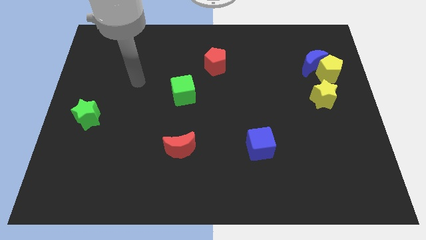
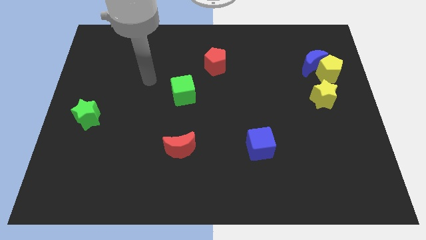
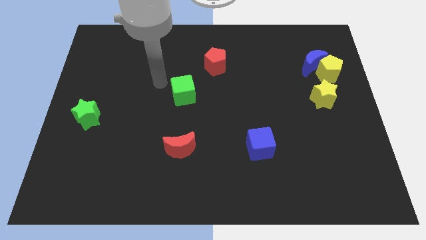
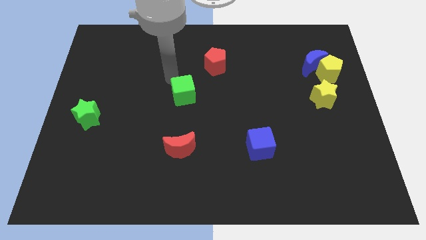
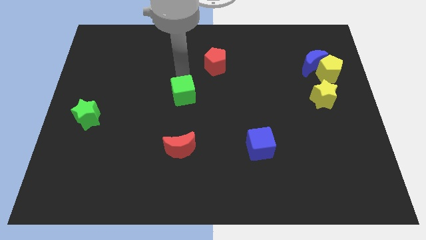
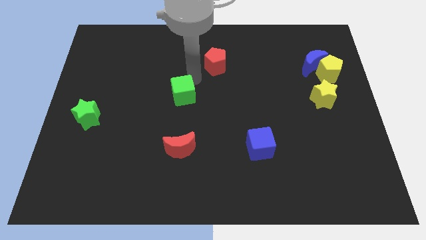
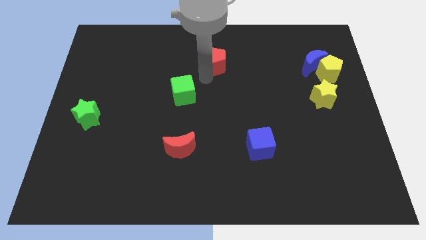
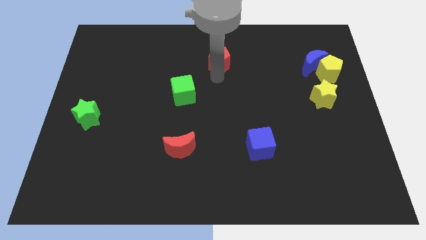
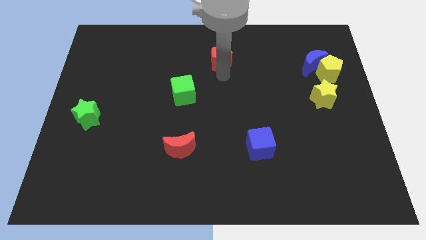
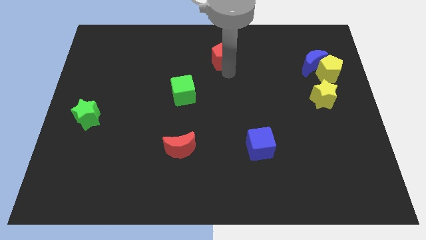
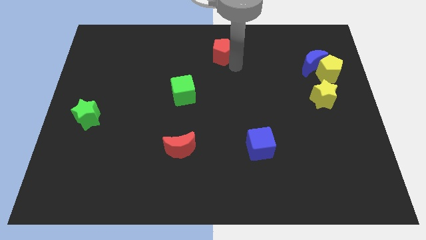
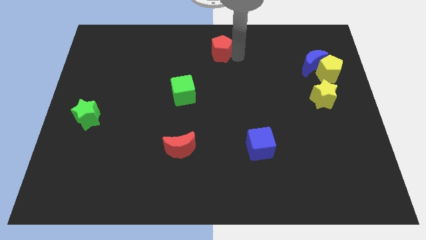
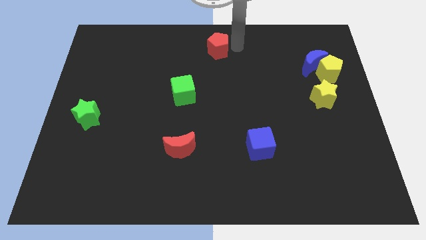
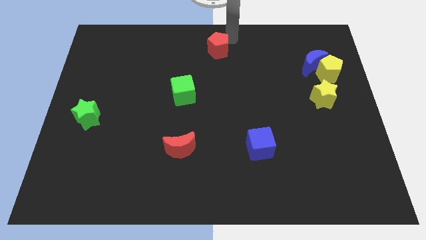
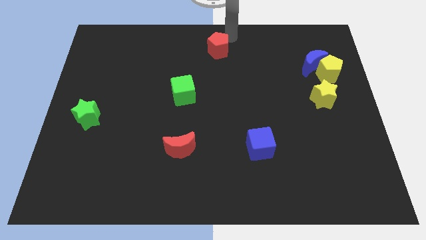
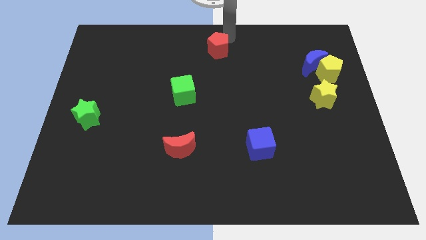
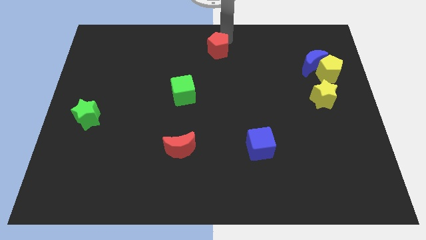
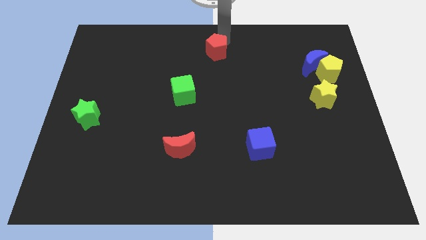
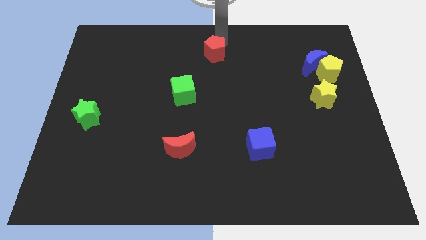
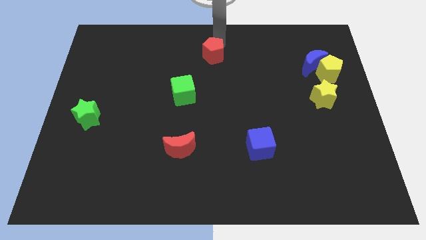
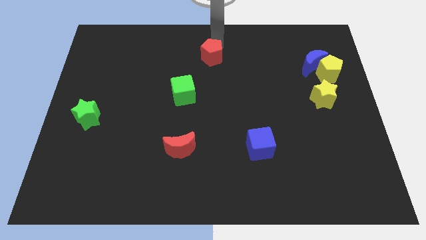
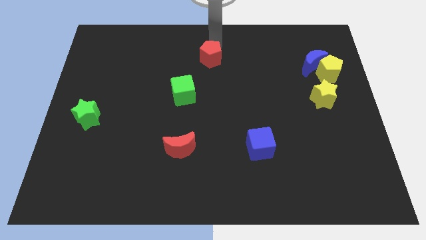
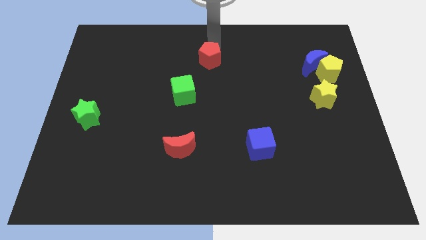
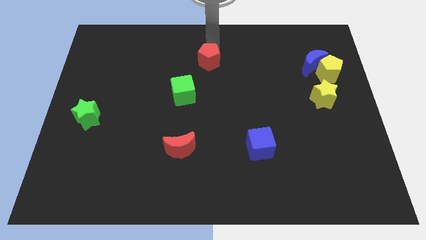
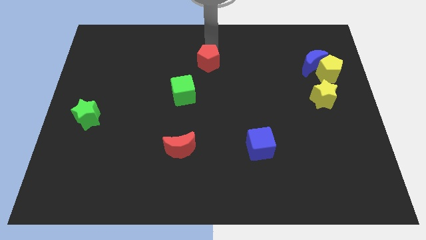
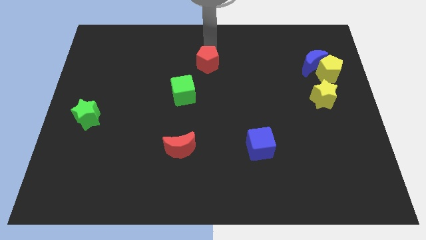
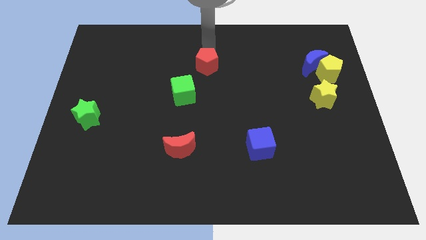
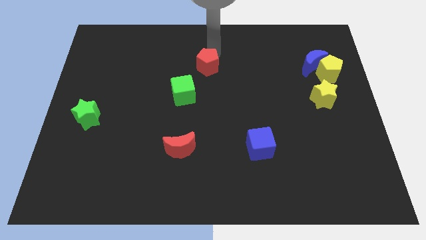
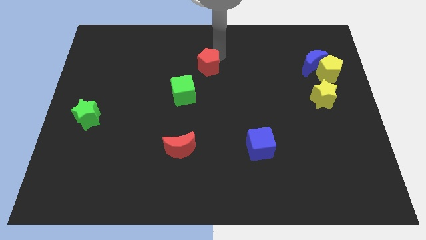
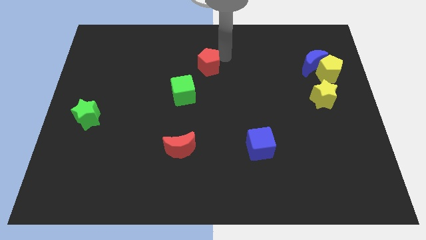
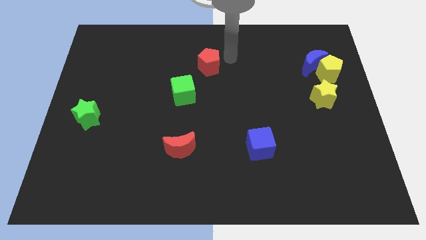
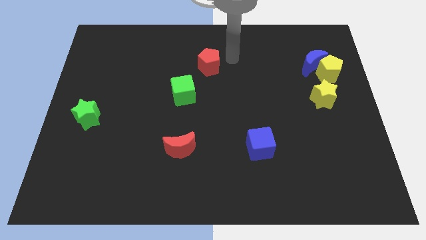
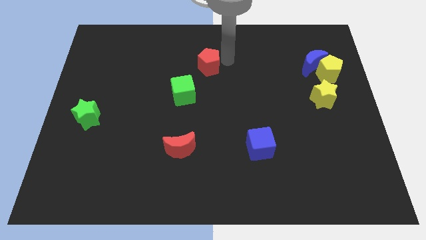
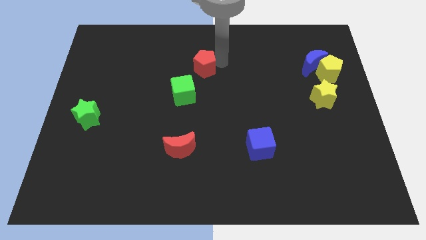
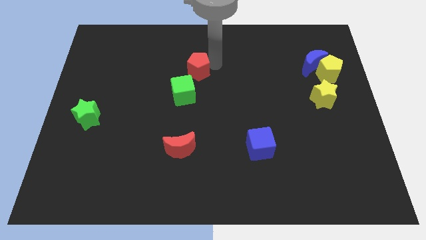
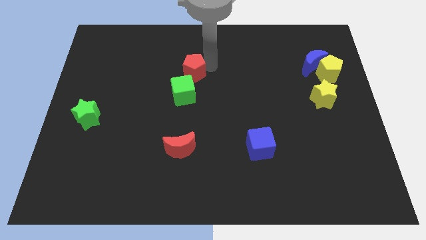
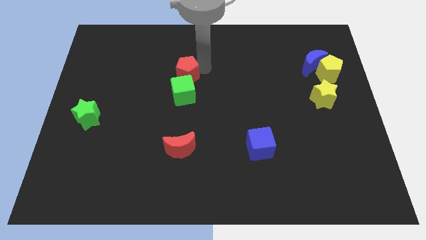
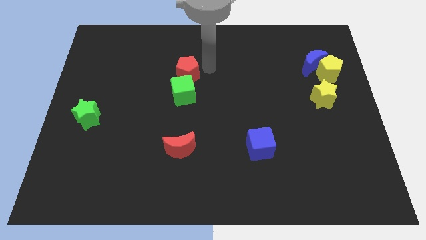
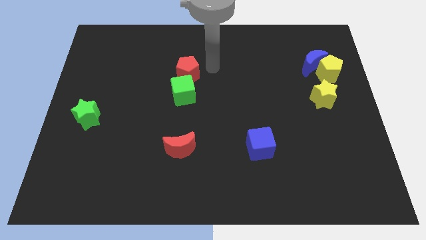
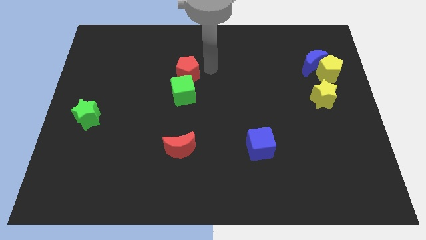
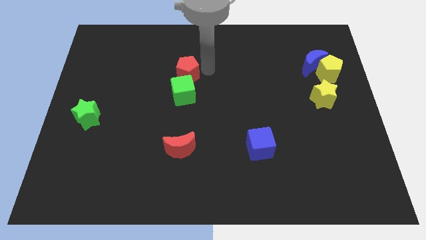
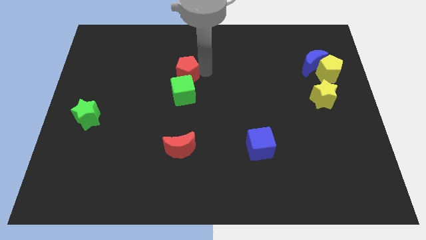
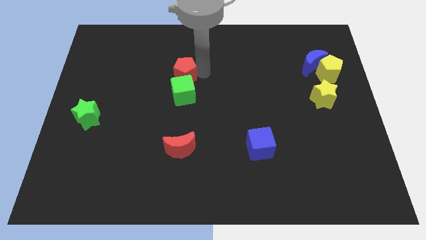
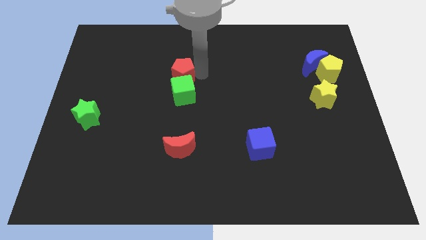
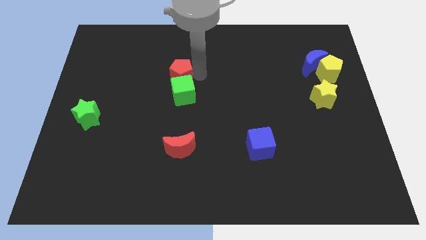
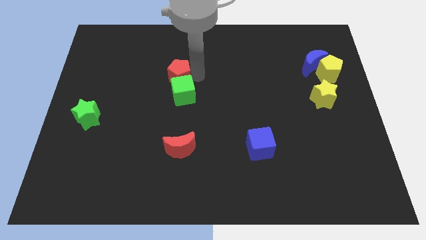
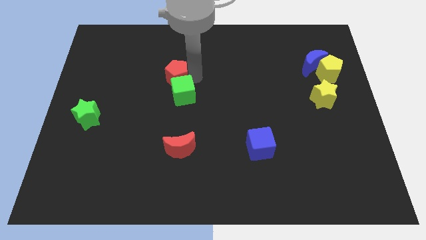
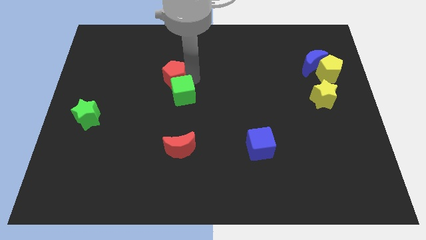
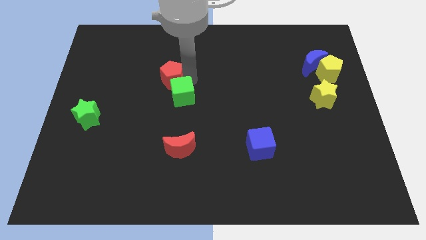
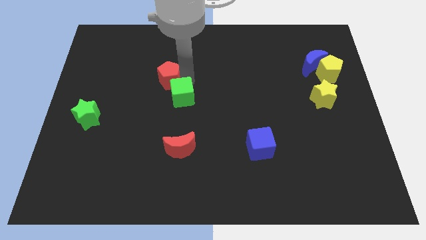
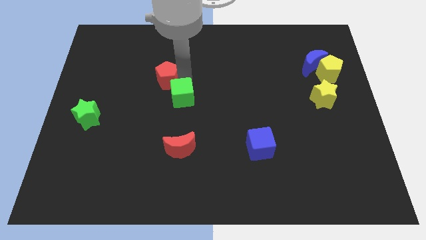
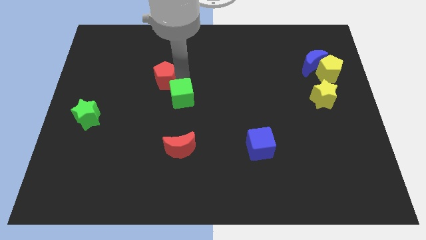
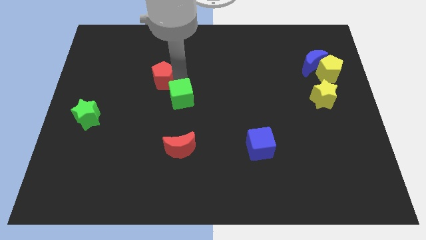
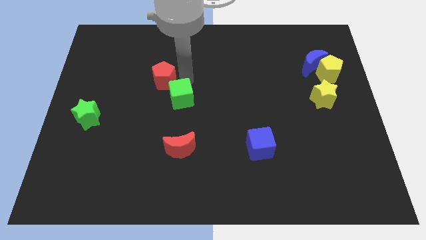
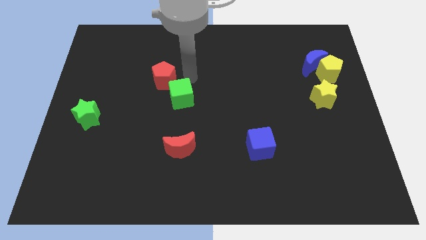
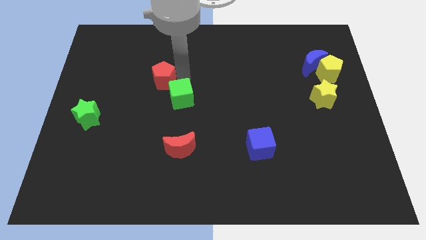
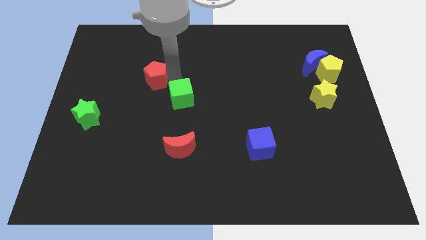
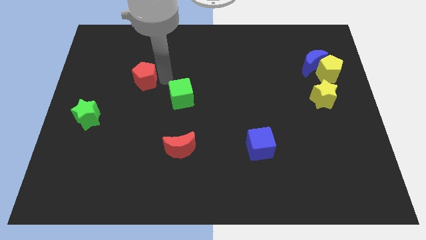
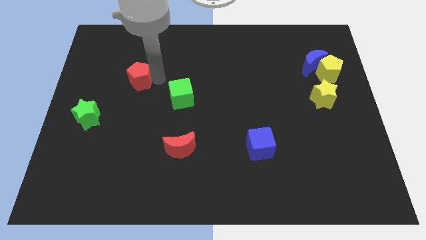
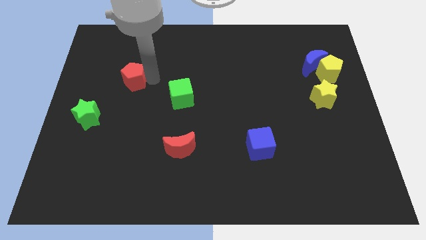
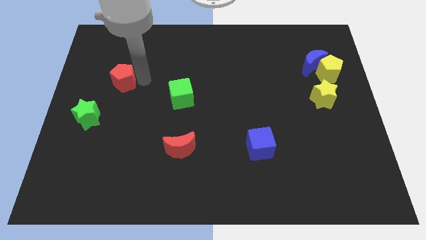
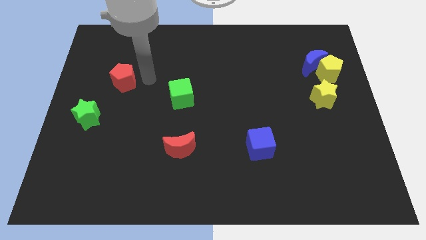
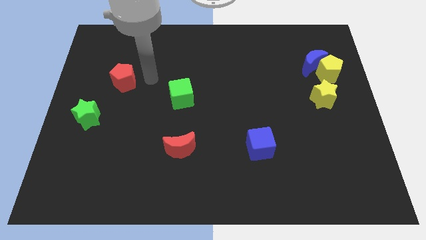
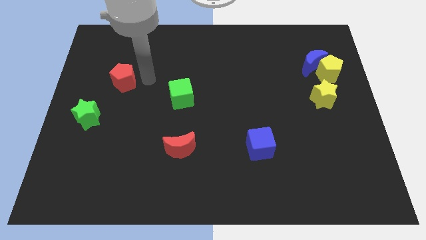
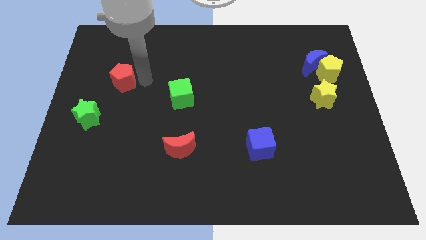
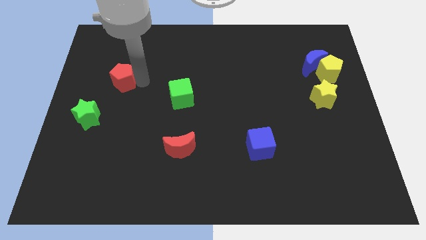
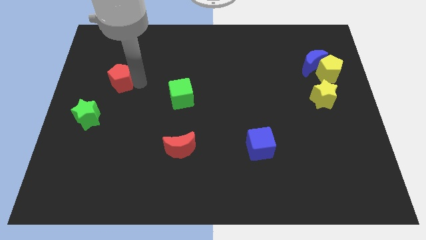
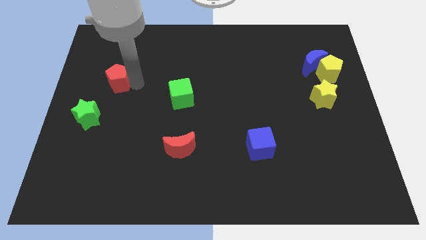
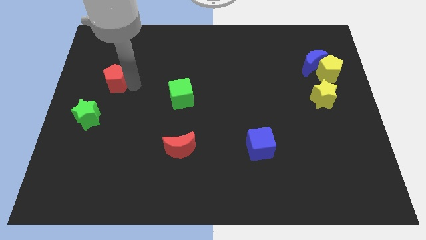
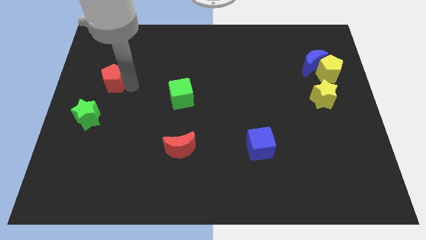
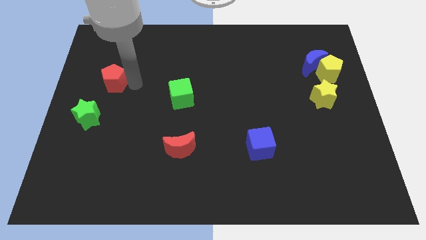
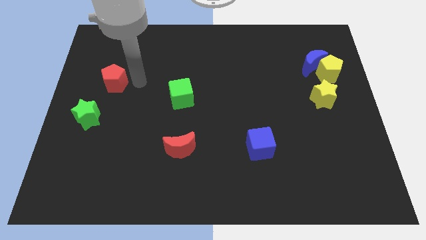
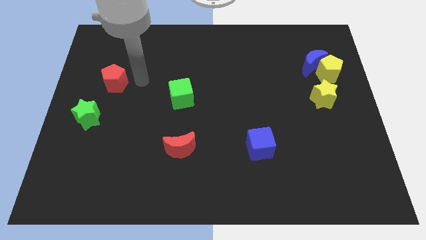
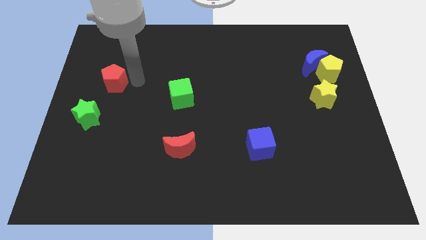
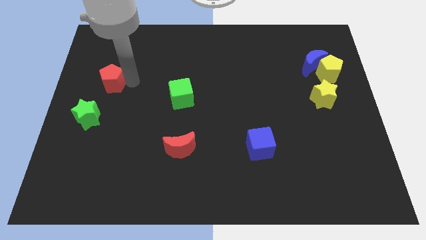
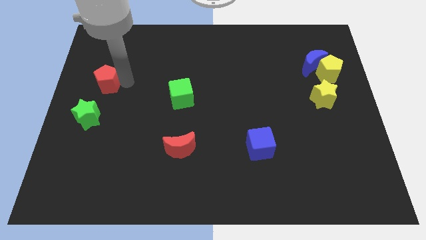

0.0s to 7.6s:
move the red pentagon to the left side of the board
